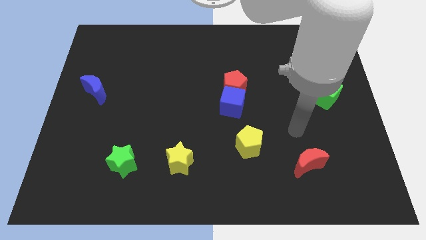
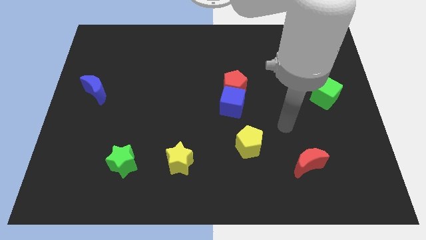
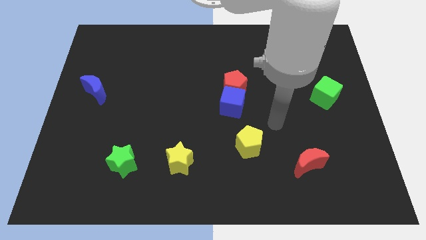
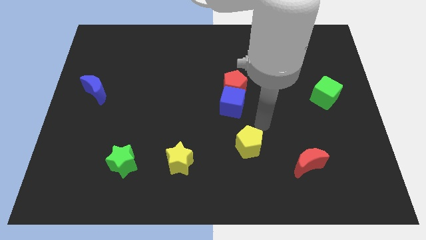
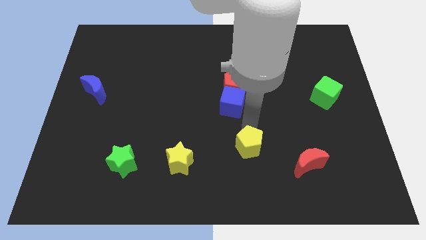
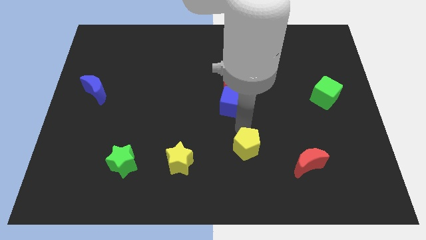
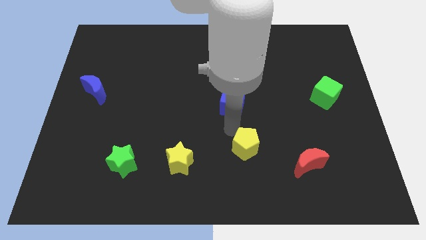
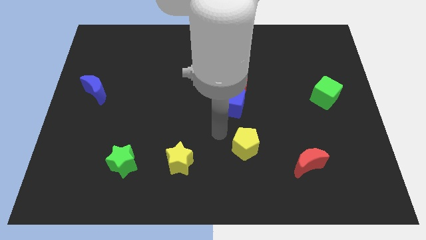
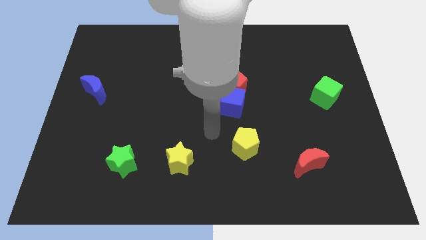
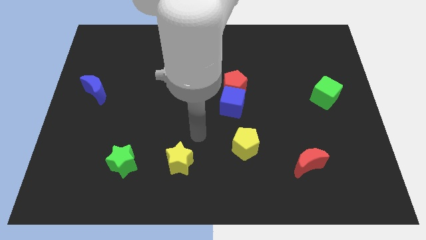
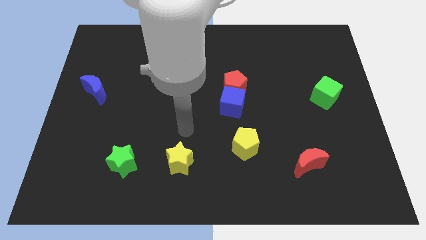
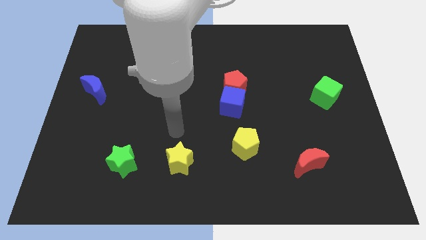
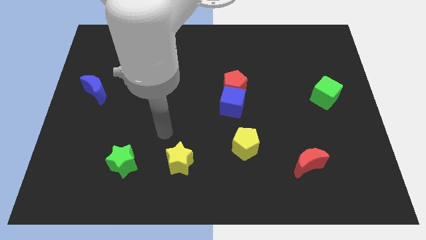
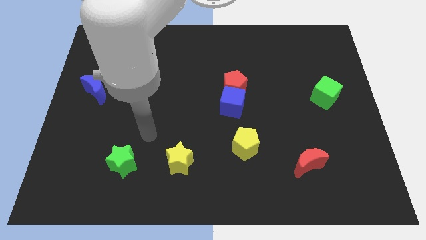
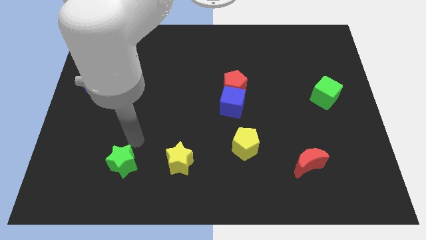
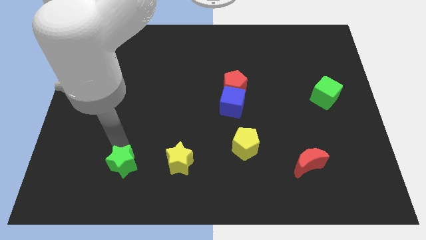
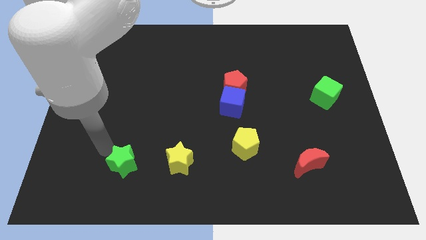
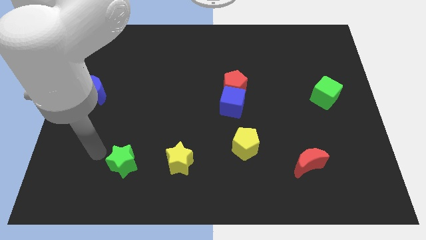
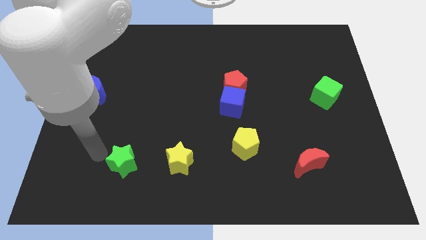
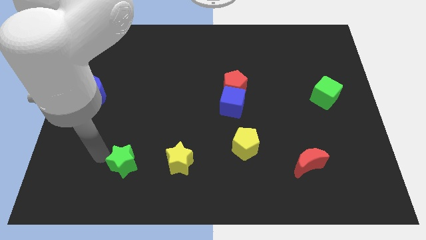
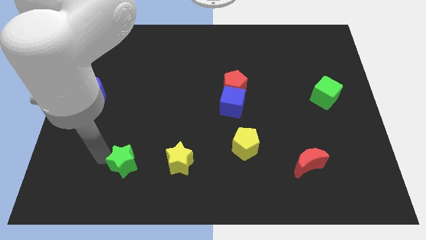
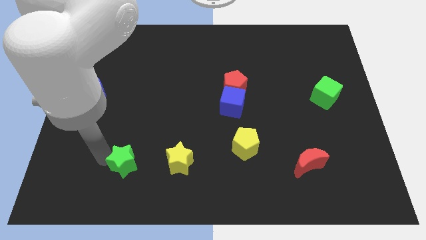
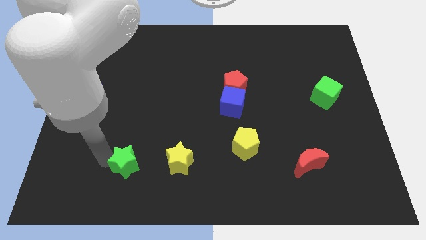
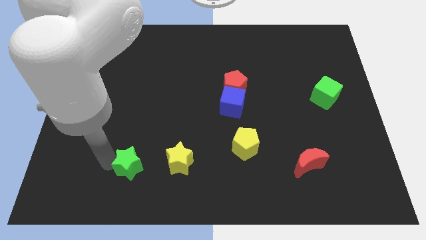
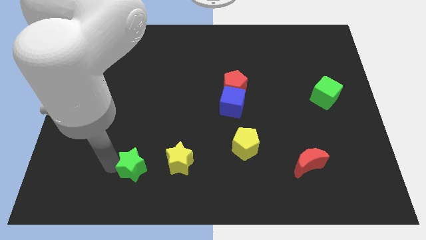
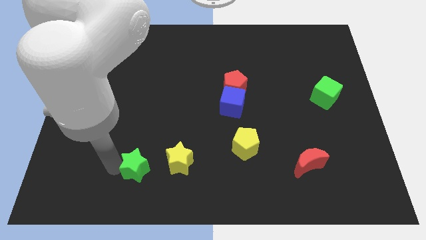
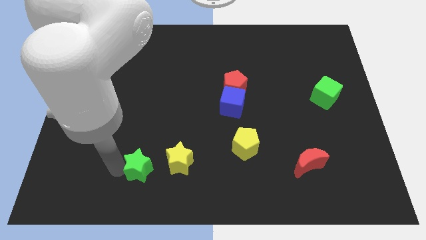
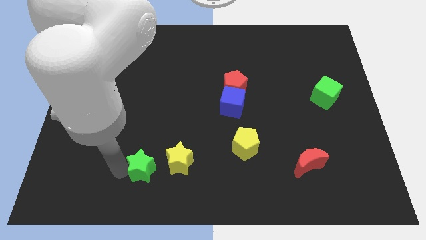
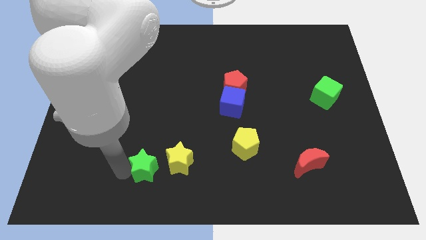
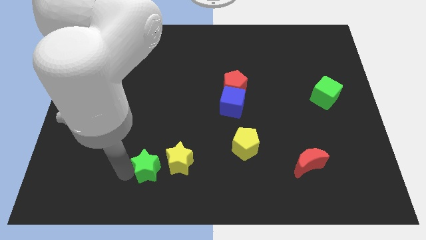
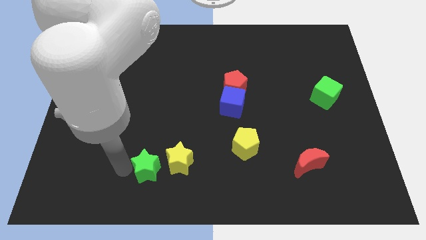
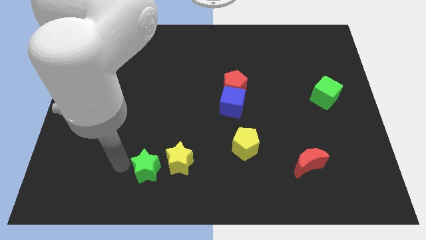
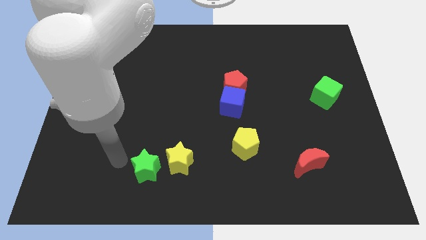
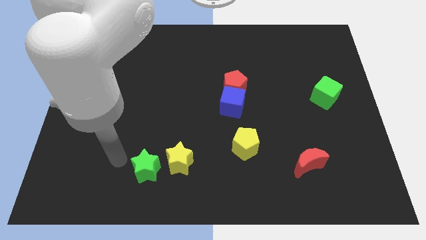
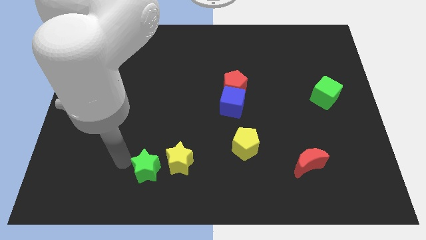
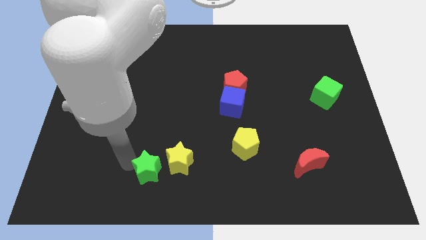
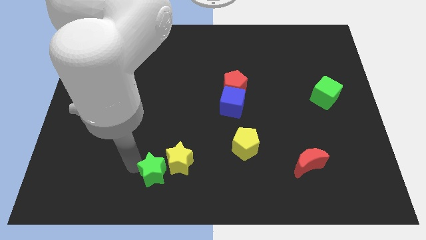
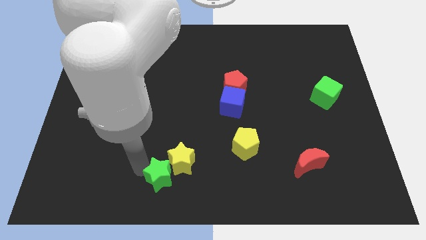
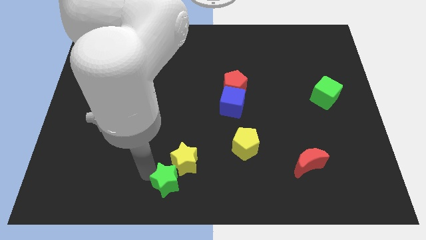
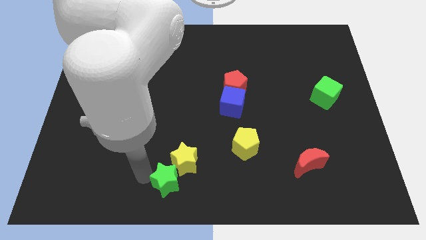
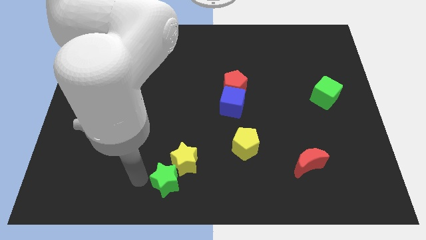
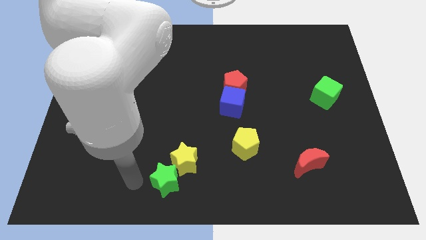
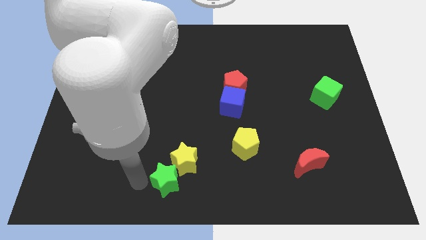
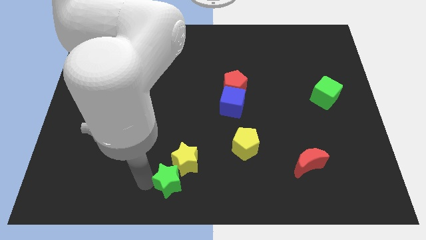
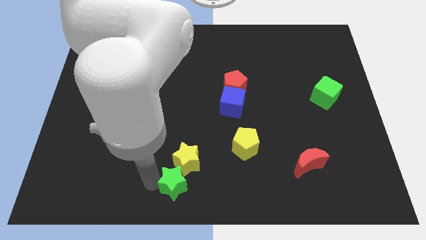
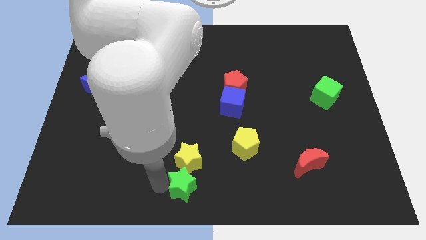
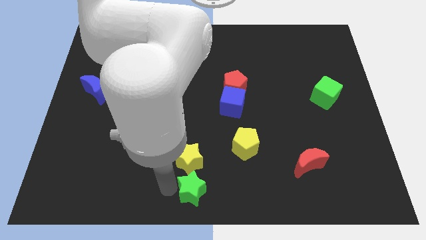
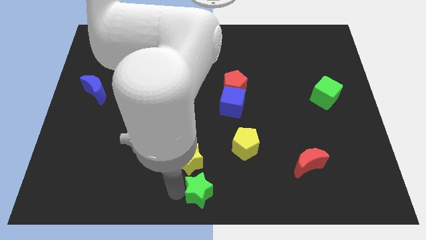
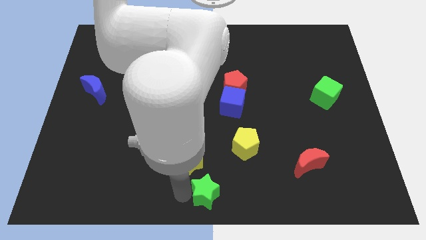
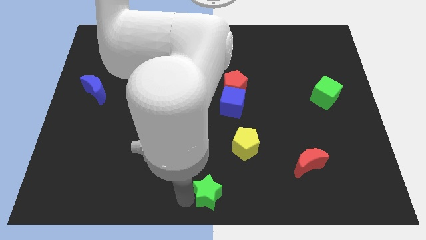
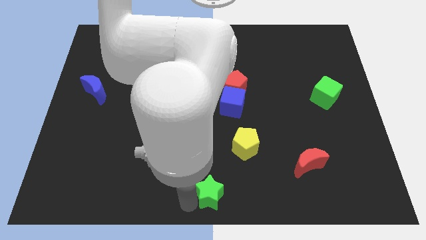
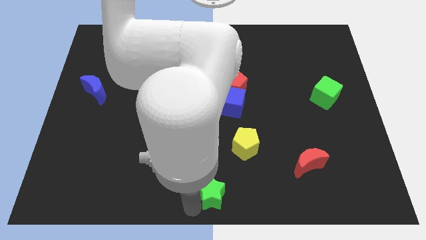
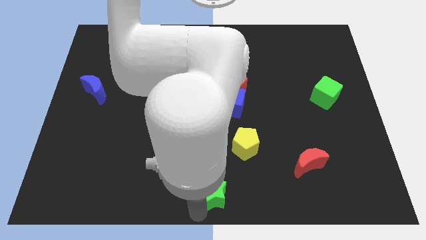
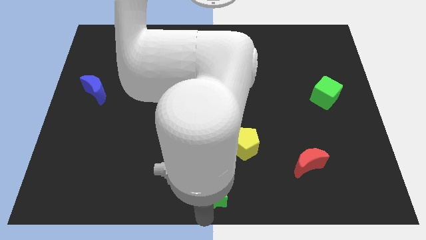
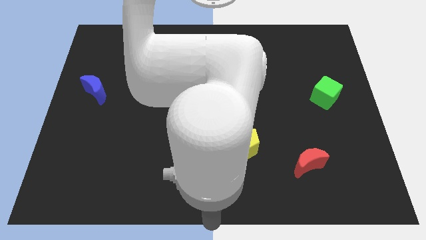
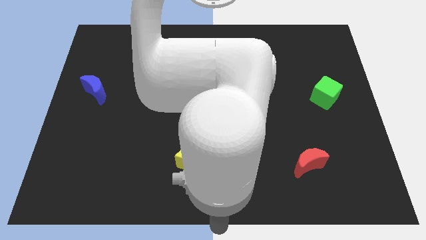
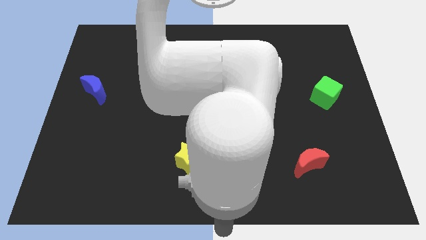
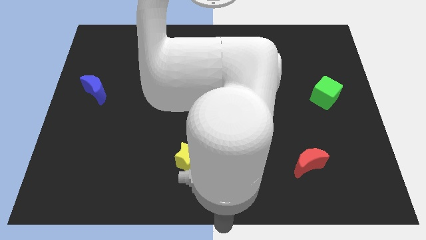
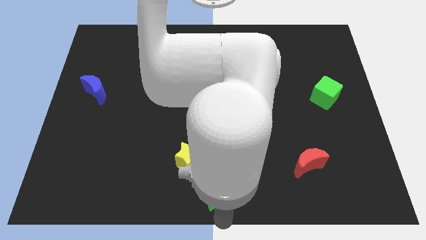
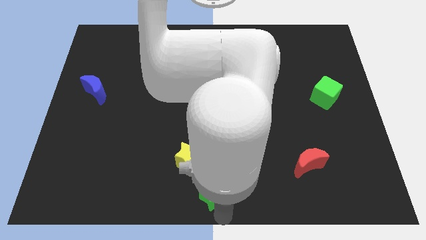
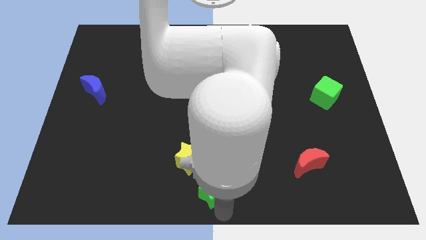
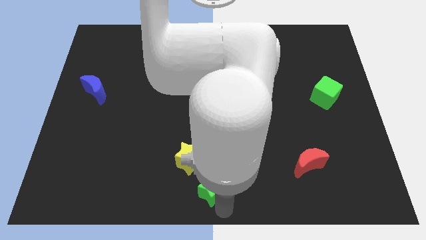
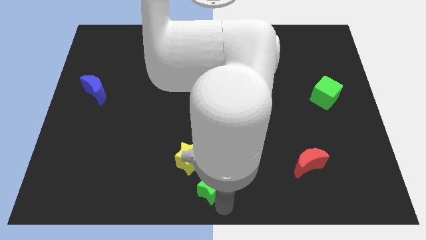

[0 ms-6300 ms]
slide the green star to the bottom left of the yellow pentagon

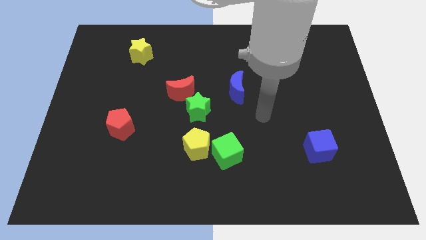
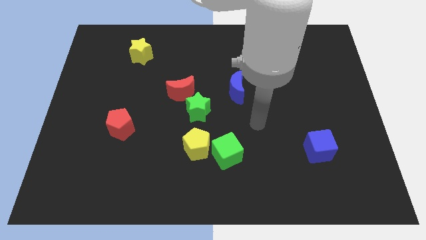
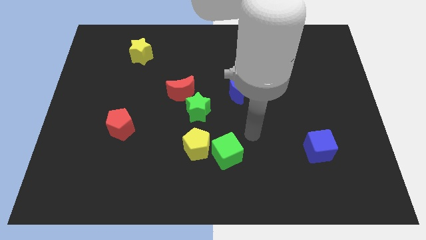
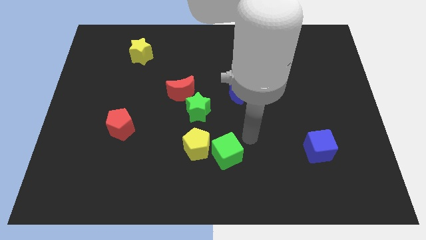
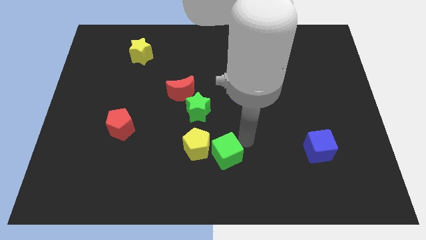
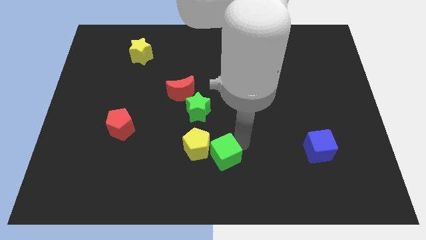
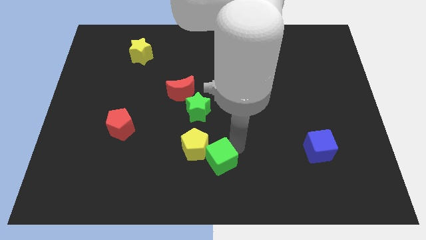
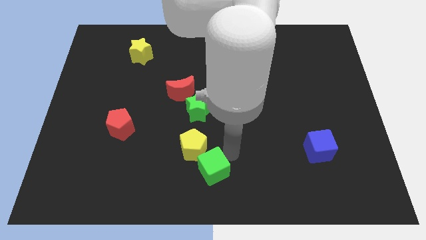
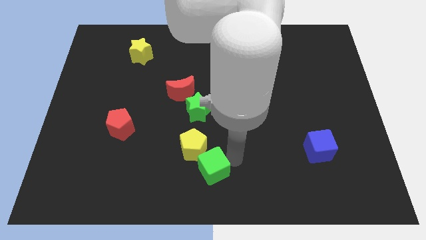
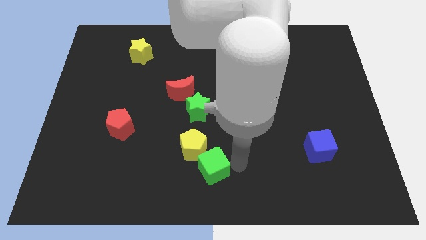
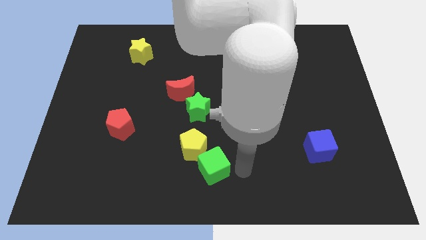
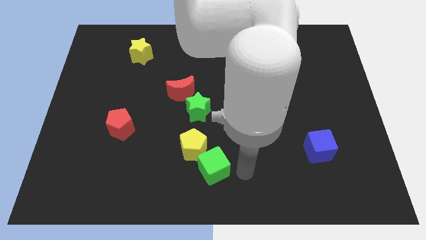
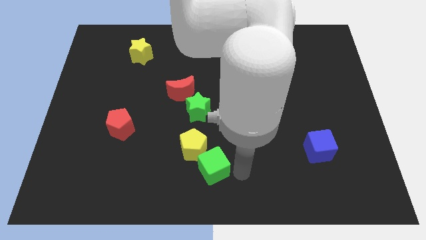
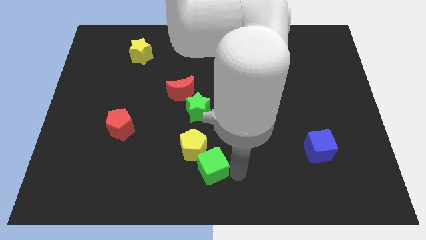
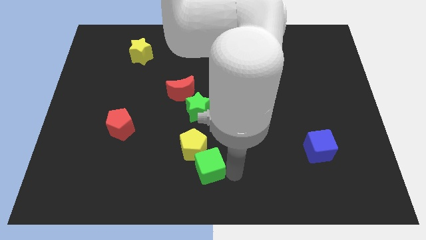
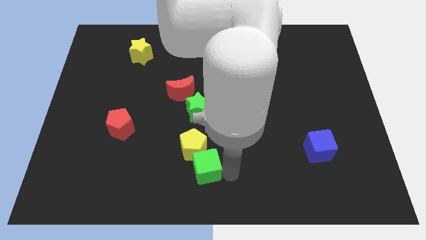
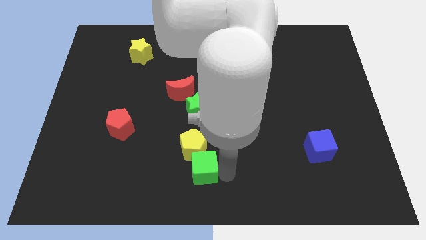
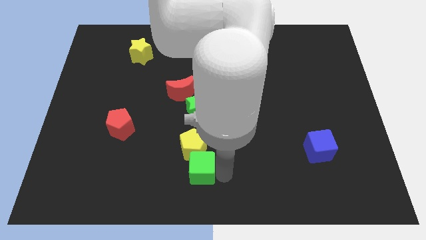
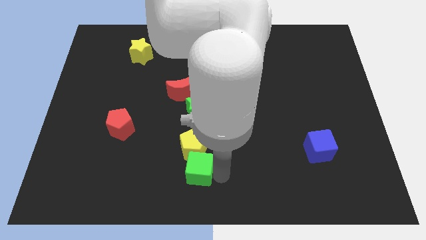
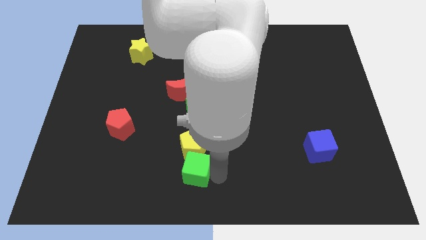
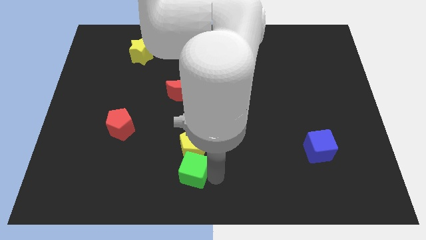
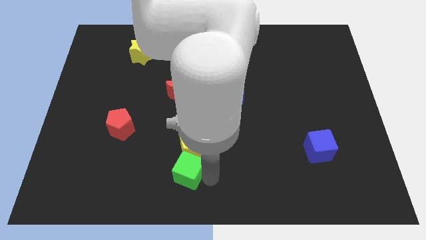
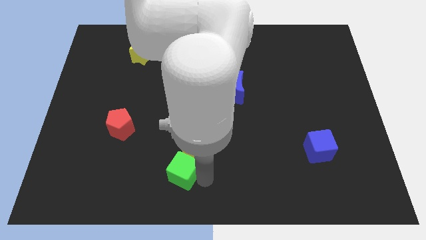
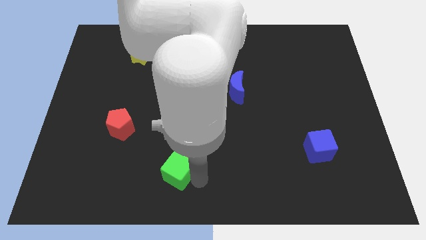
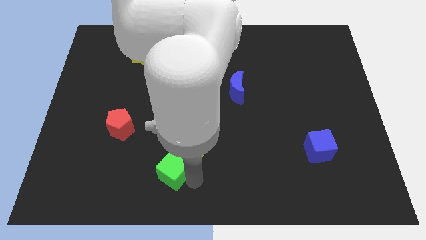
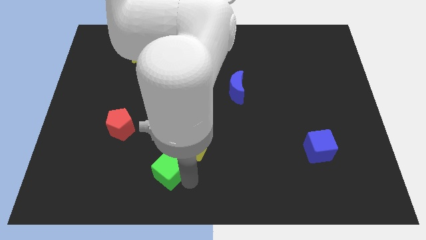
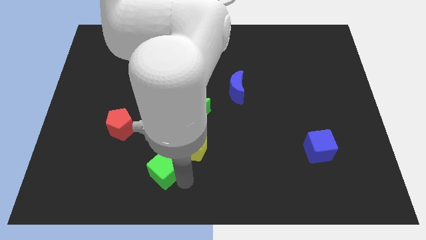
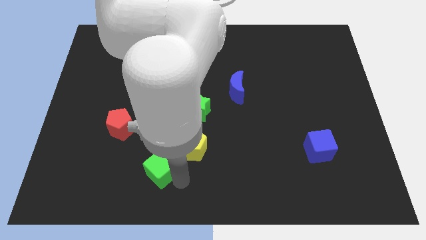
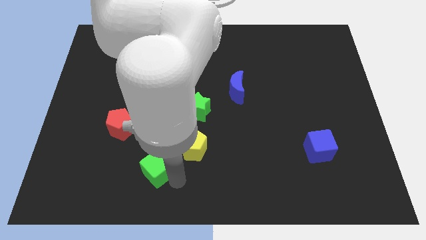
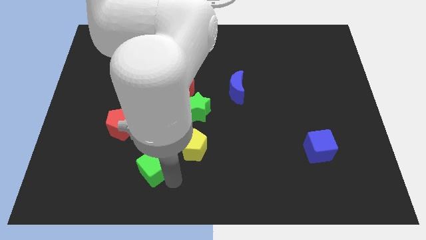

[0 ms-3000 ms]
push the green cube just left of the yellow pentagon
